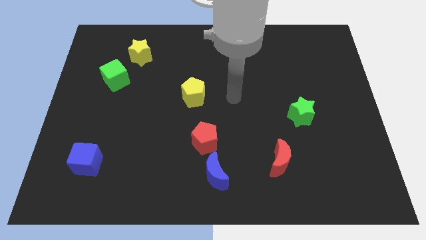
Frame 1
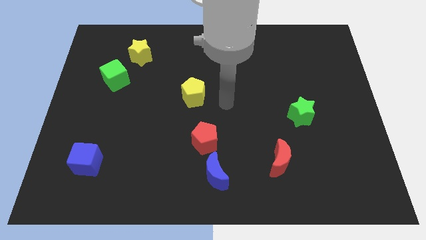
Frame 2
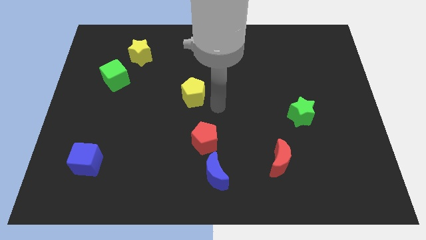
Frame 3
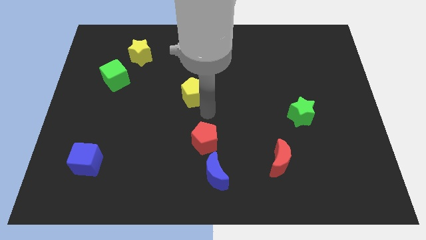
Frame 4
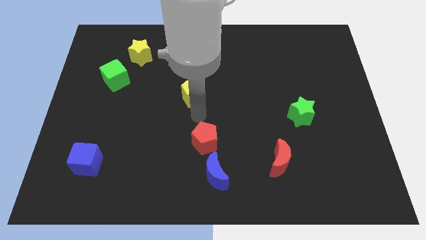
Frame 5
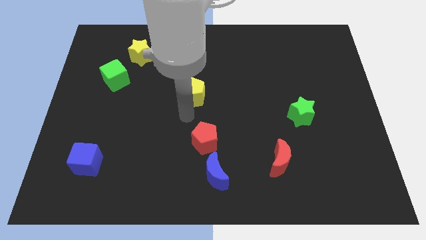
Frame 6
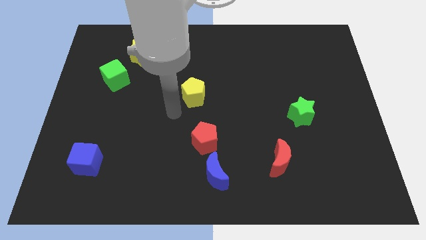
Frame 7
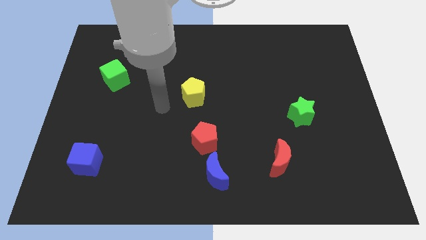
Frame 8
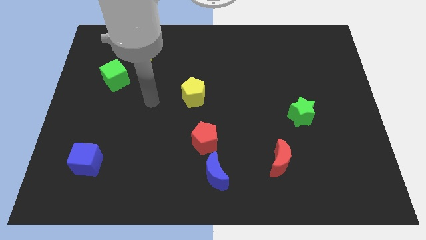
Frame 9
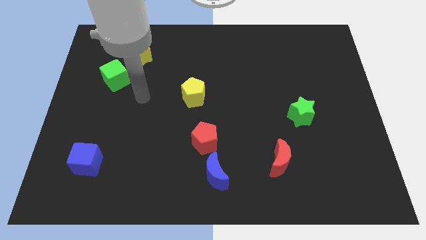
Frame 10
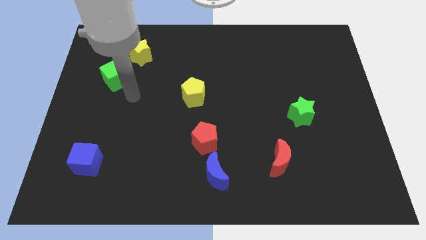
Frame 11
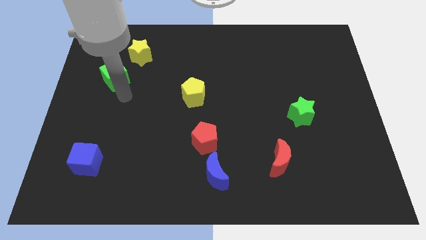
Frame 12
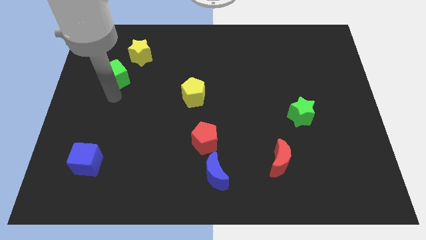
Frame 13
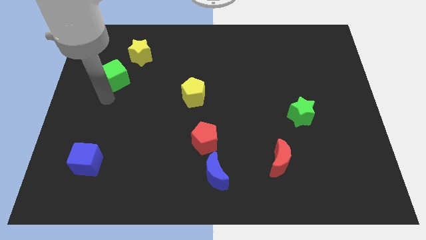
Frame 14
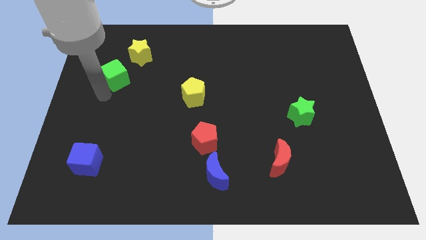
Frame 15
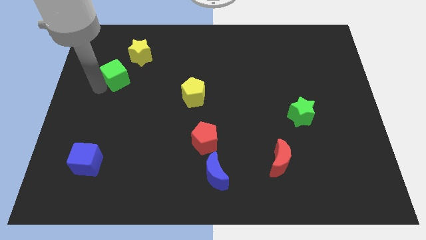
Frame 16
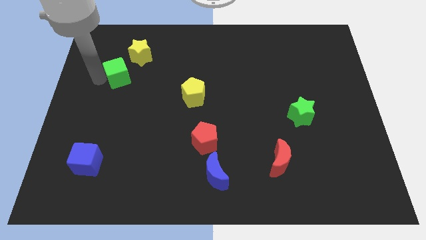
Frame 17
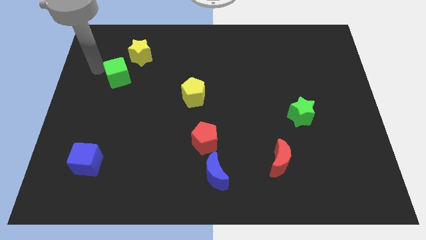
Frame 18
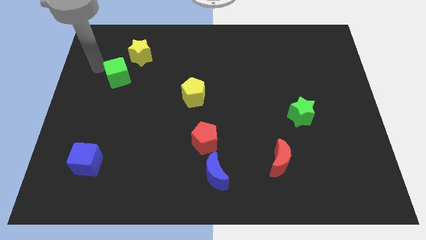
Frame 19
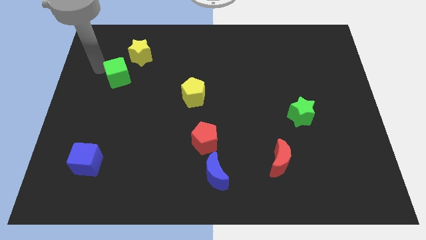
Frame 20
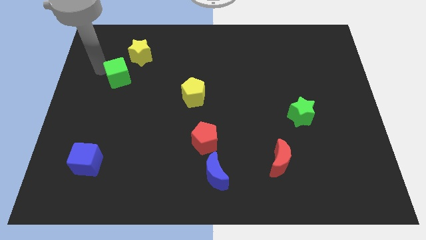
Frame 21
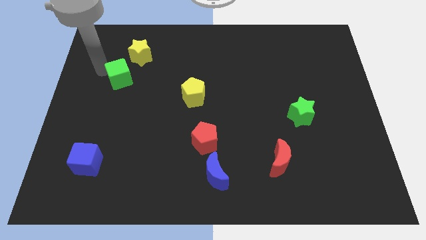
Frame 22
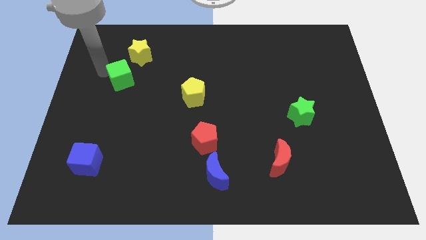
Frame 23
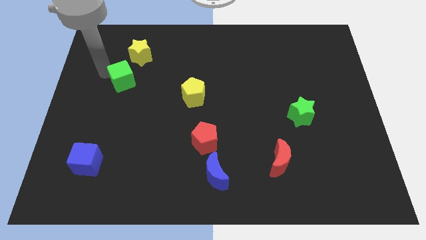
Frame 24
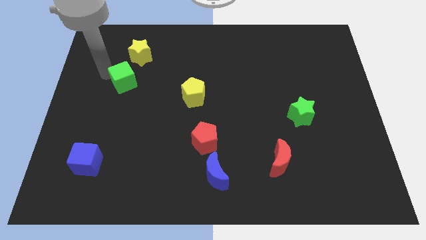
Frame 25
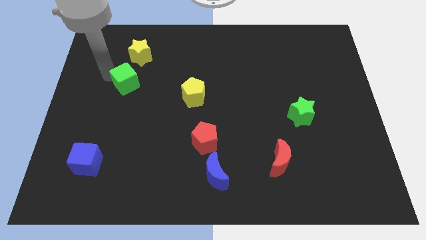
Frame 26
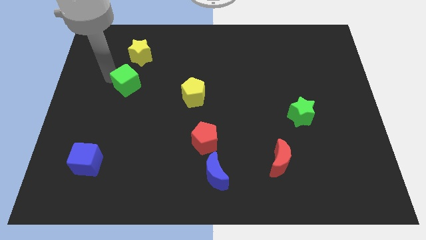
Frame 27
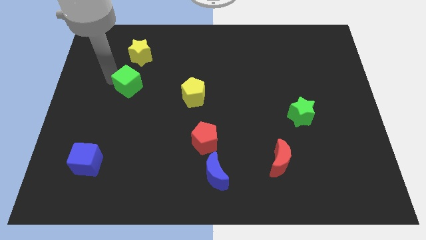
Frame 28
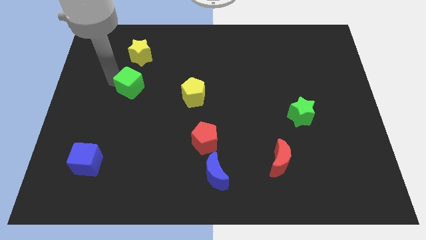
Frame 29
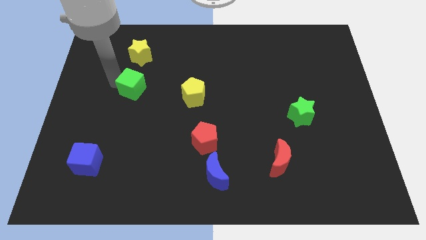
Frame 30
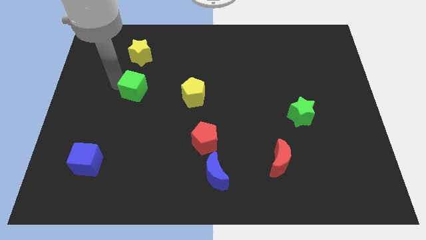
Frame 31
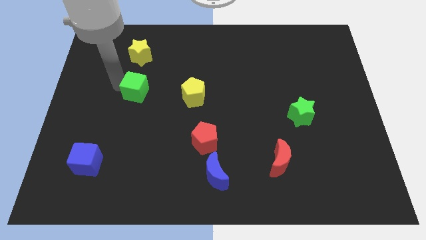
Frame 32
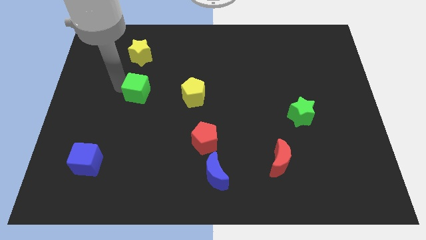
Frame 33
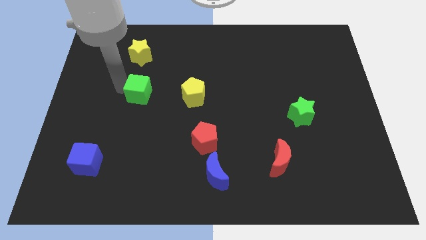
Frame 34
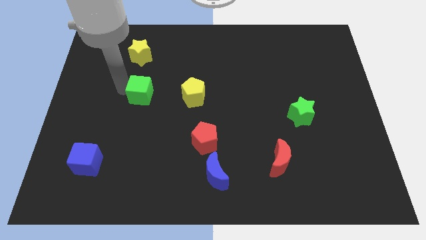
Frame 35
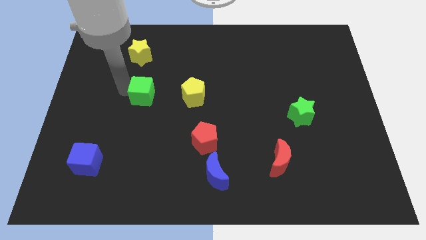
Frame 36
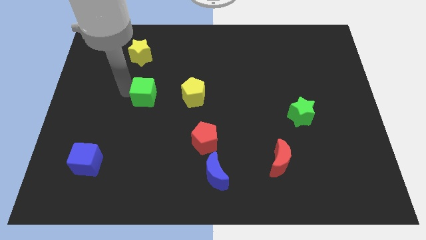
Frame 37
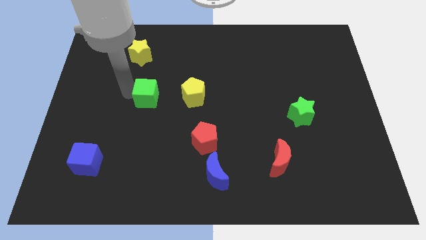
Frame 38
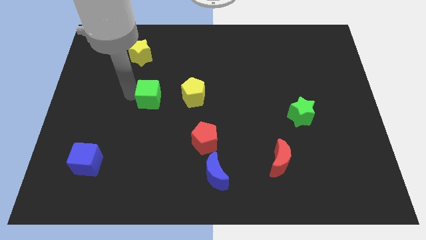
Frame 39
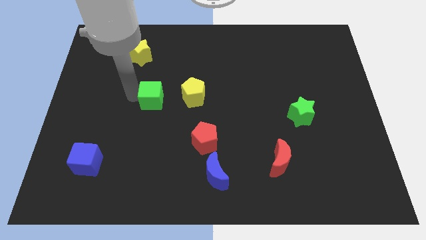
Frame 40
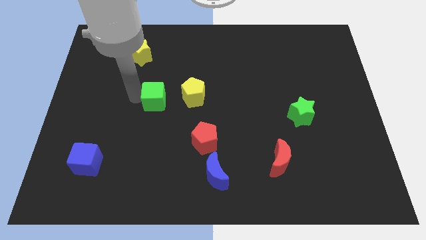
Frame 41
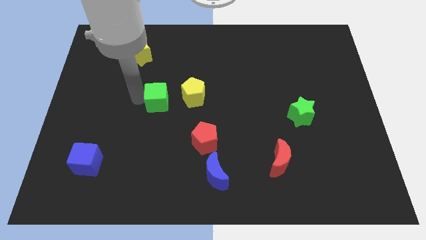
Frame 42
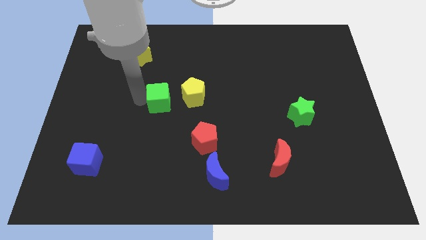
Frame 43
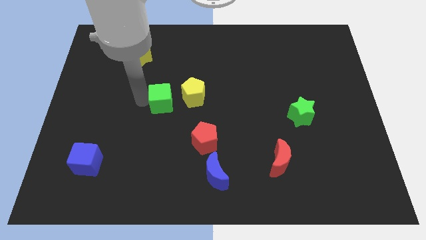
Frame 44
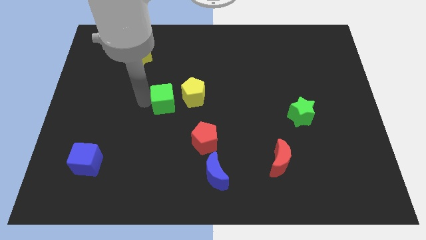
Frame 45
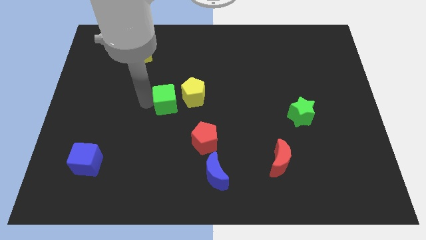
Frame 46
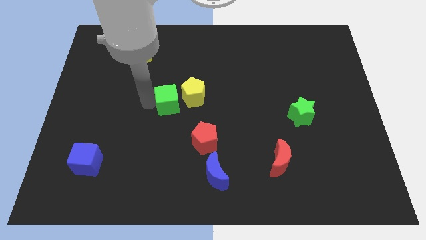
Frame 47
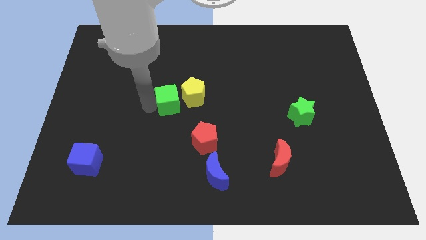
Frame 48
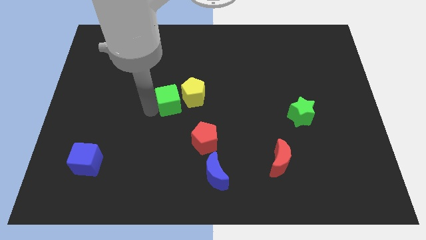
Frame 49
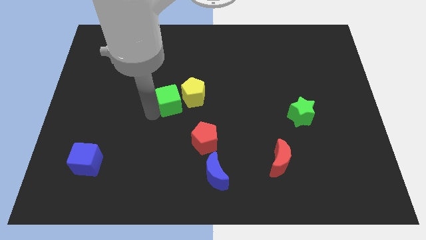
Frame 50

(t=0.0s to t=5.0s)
slide the green cube close to the yellow pentagon

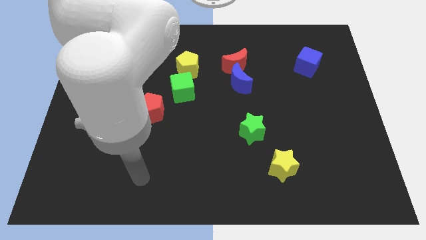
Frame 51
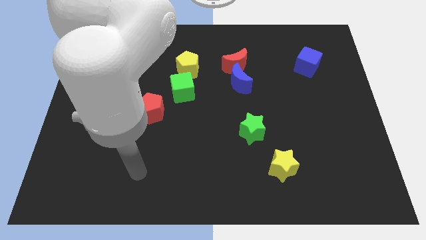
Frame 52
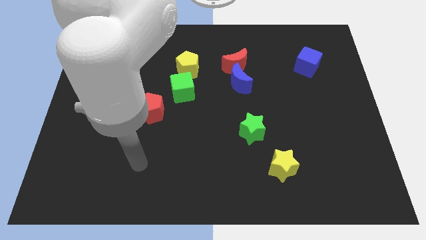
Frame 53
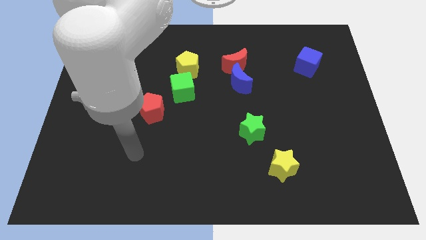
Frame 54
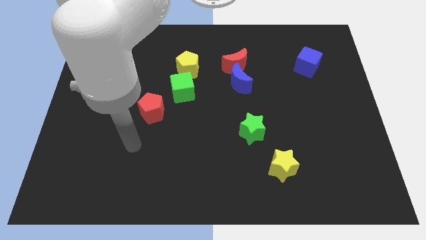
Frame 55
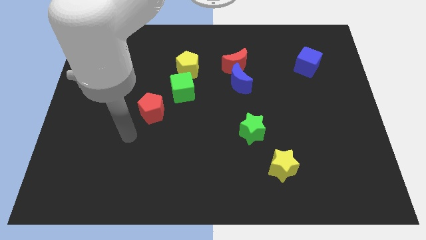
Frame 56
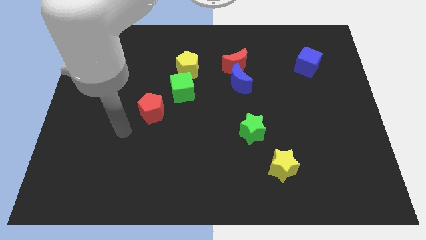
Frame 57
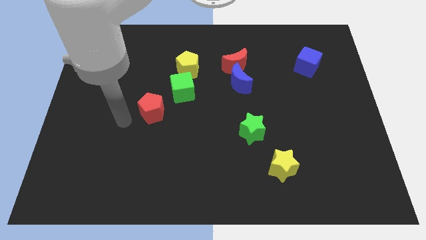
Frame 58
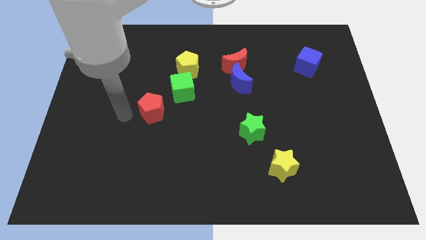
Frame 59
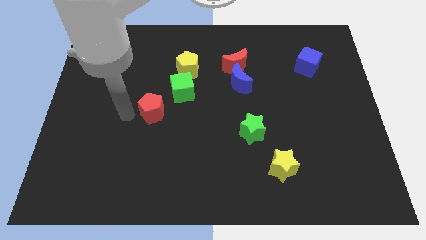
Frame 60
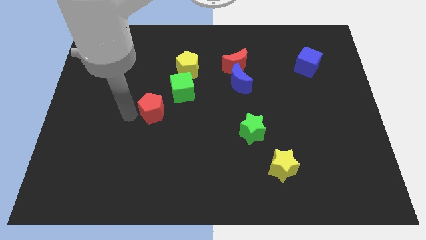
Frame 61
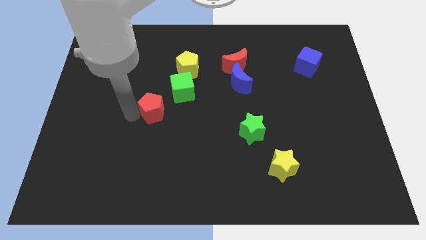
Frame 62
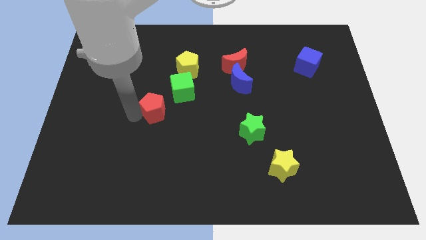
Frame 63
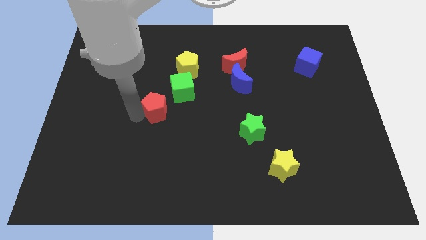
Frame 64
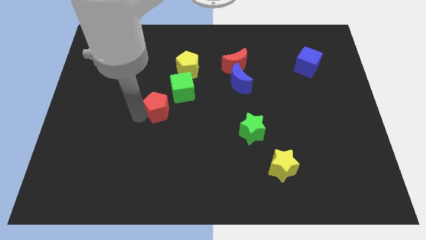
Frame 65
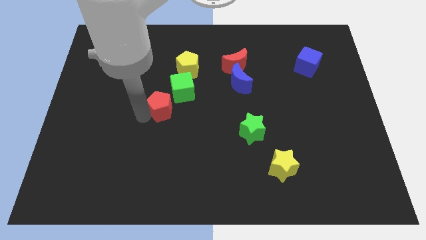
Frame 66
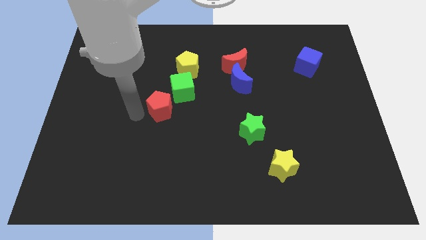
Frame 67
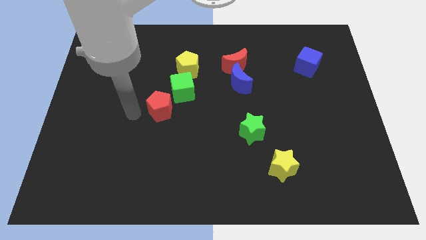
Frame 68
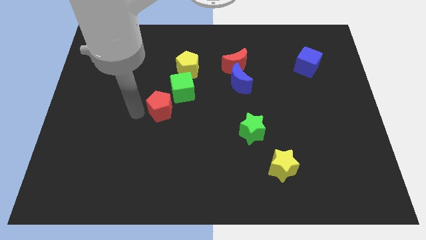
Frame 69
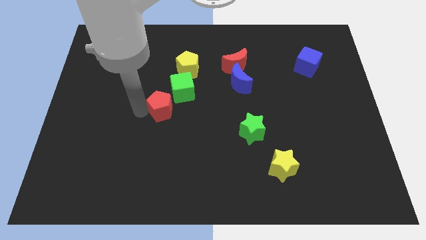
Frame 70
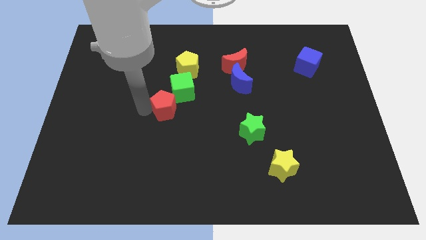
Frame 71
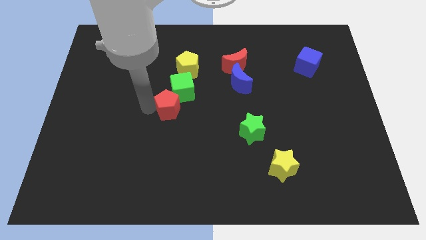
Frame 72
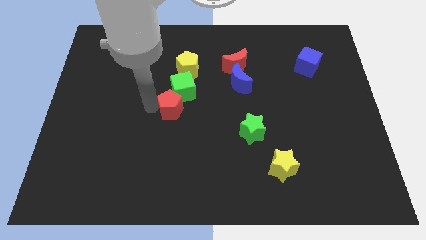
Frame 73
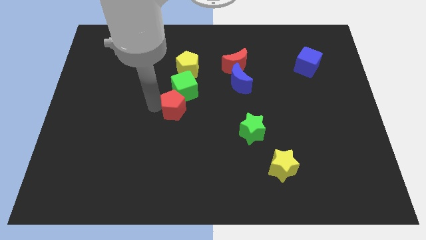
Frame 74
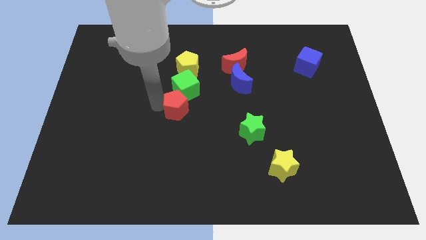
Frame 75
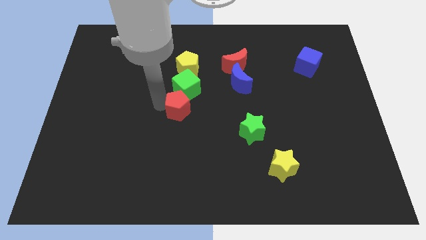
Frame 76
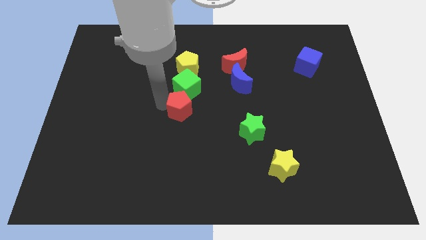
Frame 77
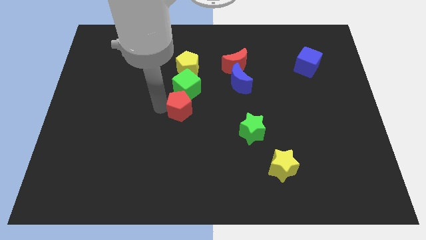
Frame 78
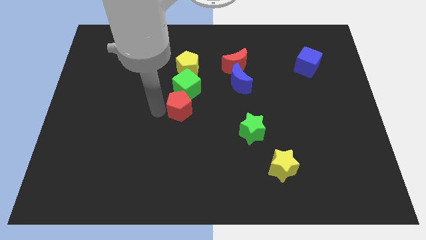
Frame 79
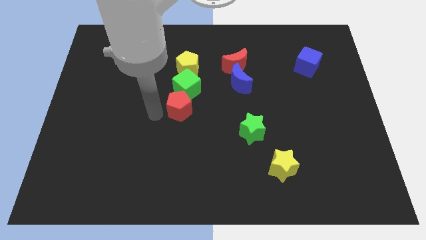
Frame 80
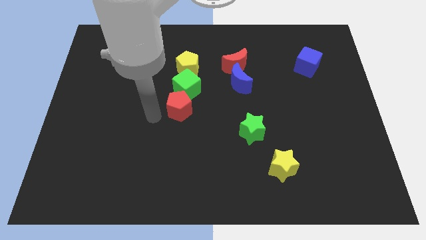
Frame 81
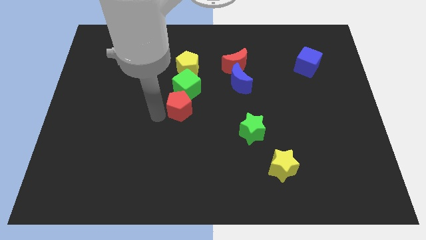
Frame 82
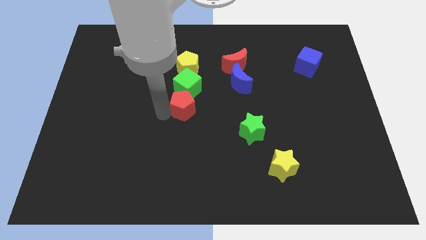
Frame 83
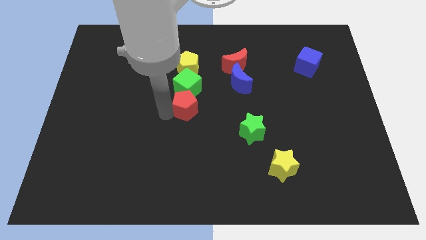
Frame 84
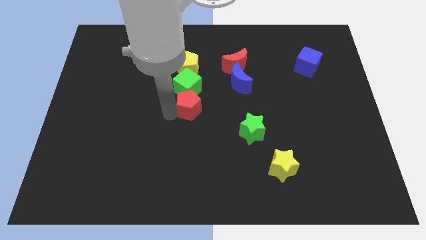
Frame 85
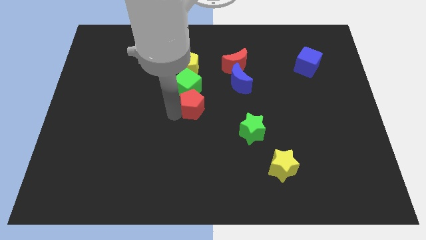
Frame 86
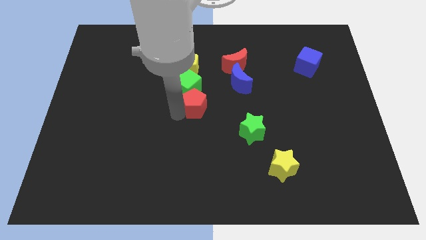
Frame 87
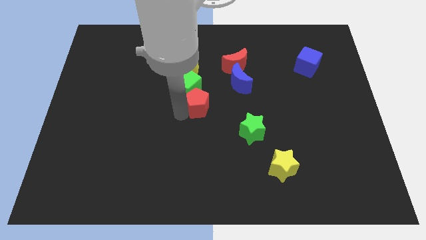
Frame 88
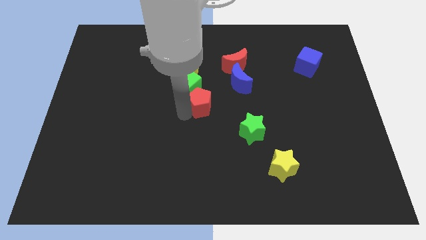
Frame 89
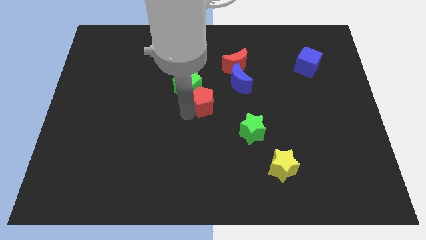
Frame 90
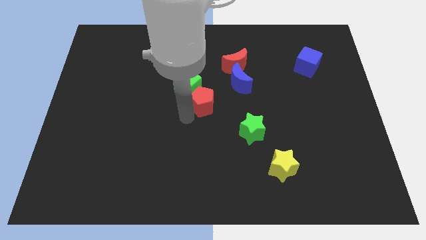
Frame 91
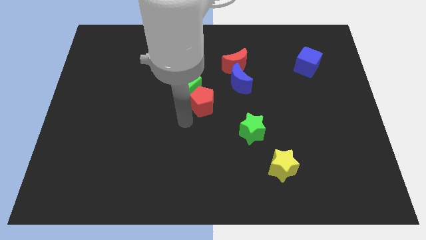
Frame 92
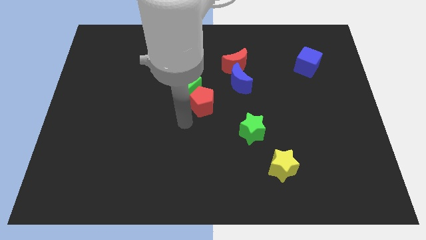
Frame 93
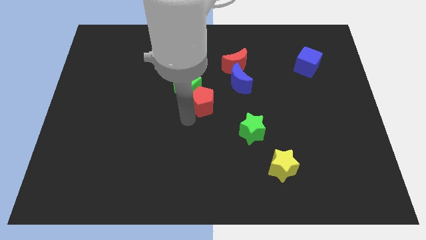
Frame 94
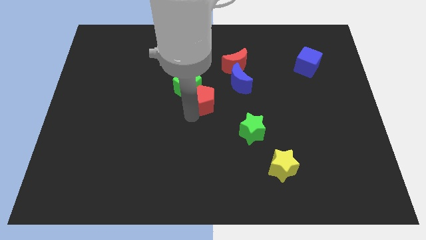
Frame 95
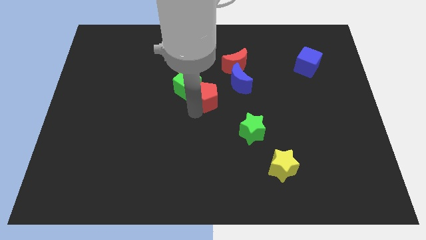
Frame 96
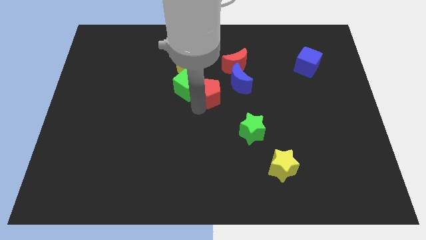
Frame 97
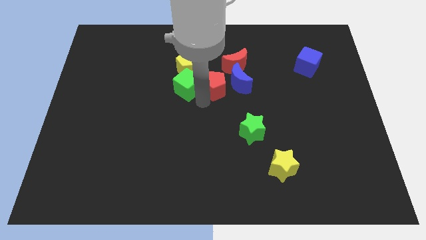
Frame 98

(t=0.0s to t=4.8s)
put the red pentagon towards the blue moon
